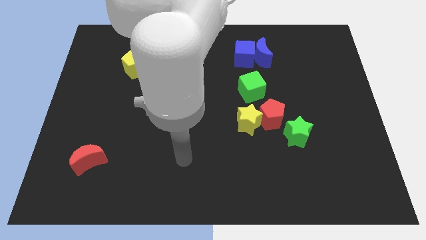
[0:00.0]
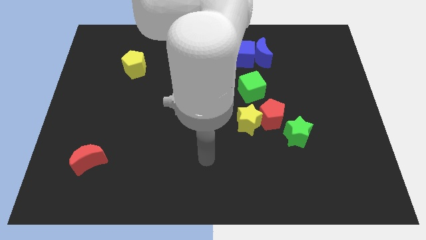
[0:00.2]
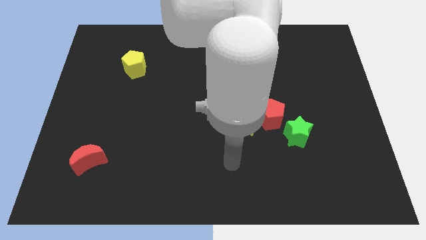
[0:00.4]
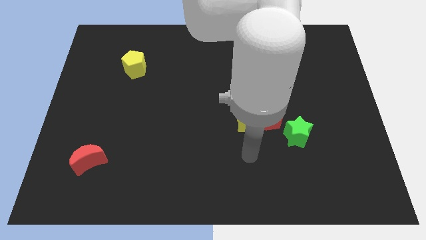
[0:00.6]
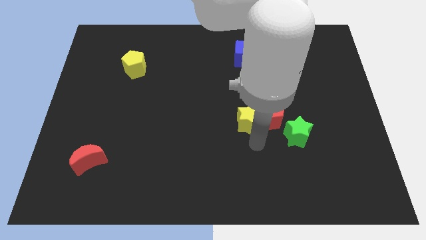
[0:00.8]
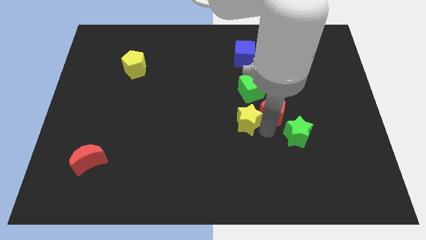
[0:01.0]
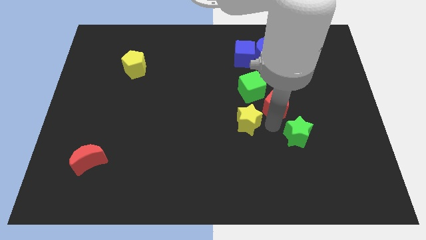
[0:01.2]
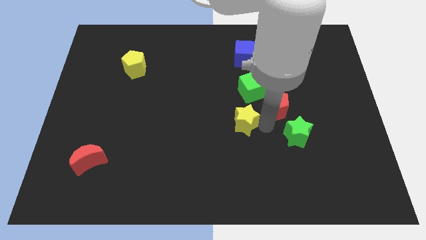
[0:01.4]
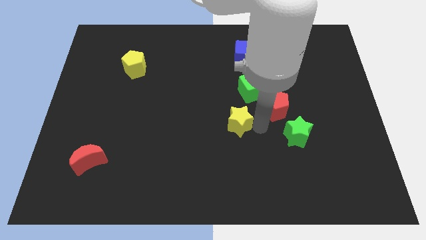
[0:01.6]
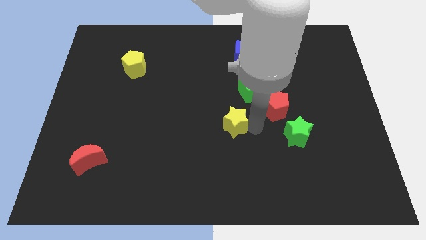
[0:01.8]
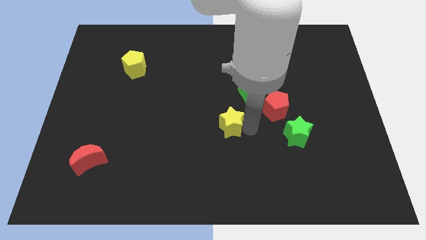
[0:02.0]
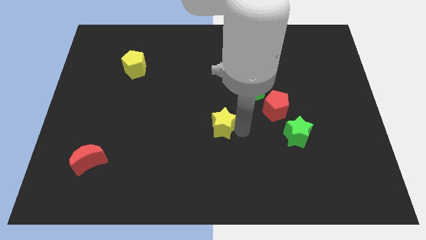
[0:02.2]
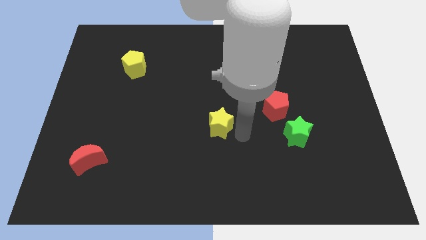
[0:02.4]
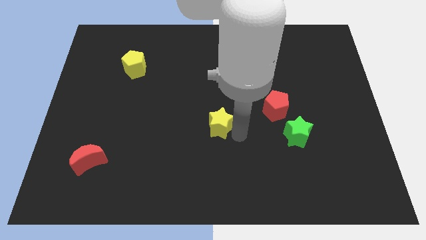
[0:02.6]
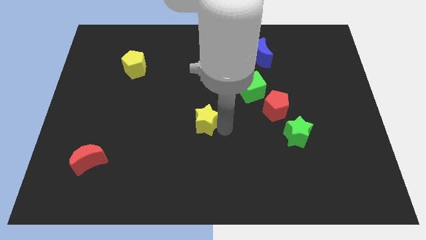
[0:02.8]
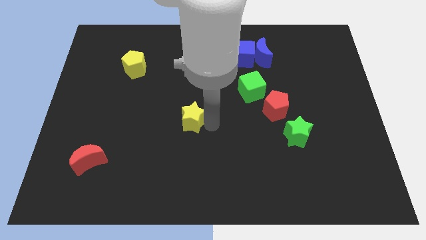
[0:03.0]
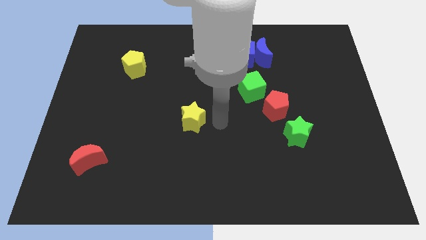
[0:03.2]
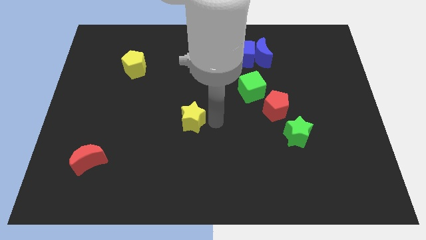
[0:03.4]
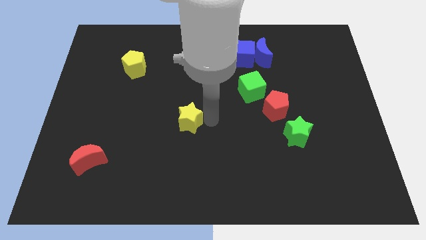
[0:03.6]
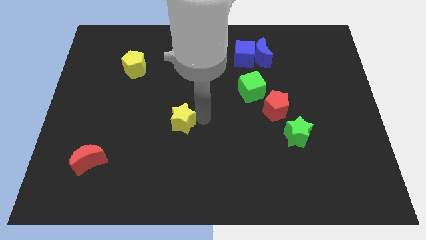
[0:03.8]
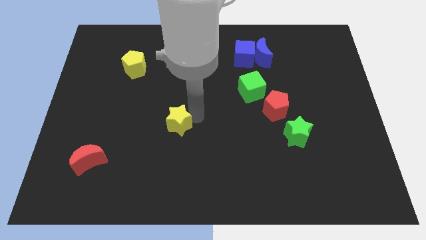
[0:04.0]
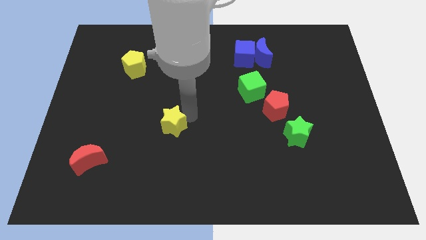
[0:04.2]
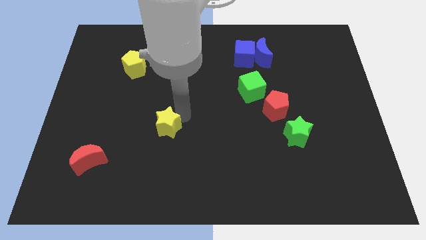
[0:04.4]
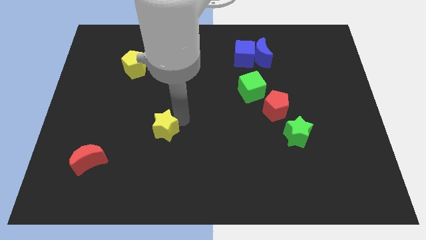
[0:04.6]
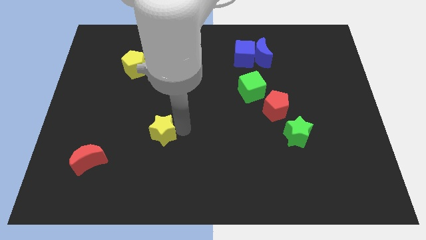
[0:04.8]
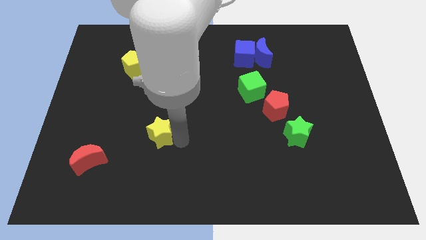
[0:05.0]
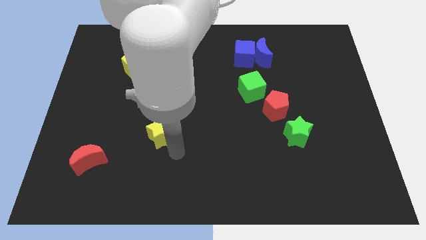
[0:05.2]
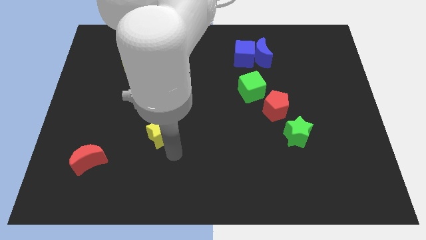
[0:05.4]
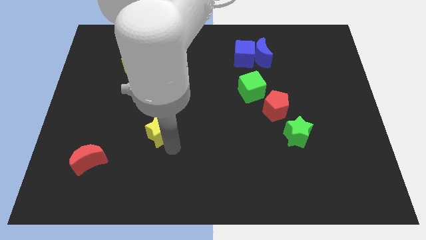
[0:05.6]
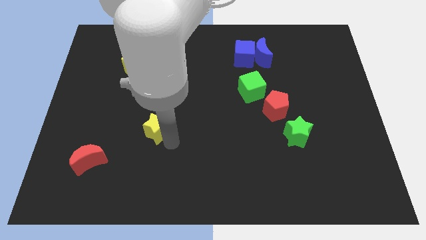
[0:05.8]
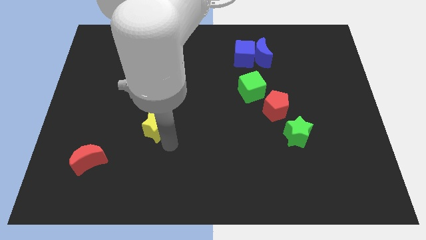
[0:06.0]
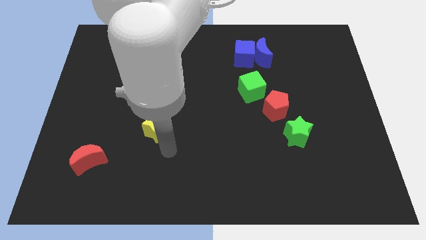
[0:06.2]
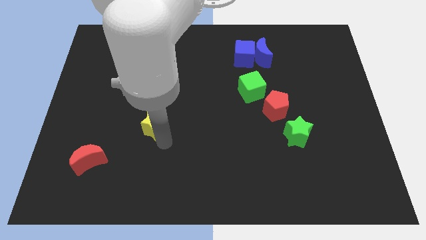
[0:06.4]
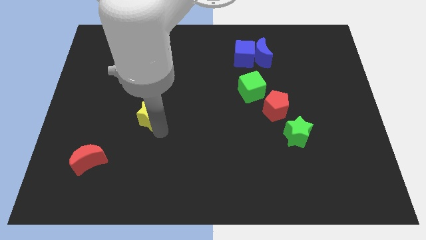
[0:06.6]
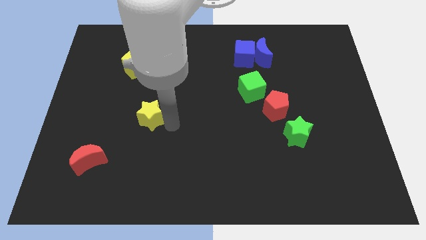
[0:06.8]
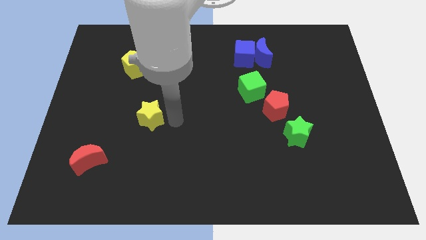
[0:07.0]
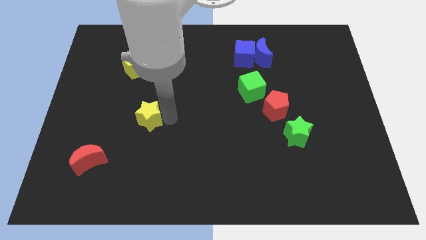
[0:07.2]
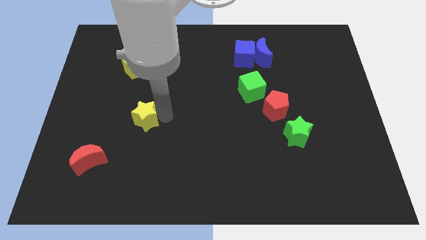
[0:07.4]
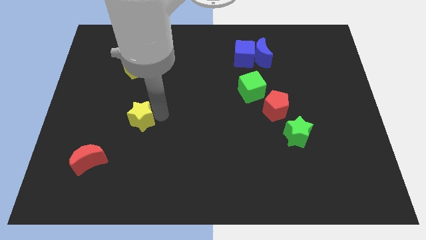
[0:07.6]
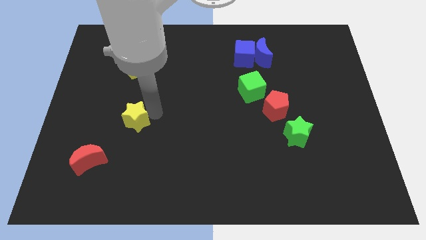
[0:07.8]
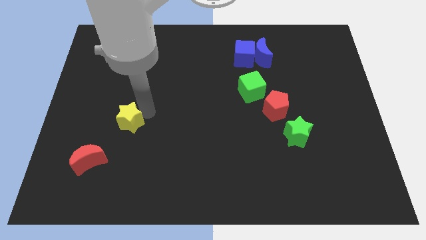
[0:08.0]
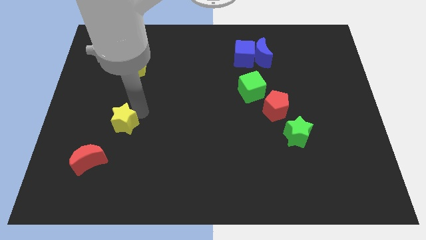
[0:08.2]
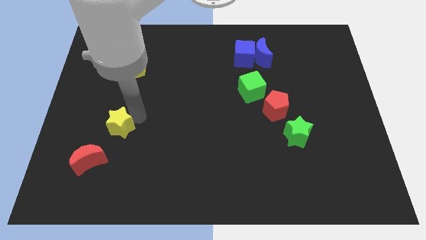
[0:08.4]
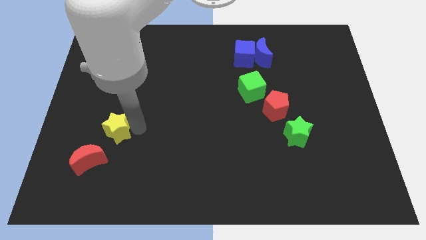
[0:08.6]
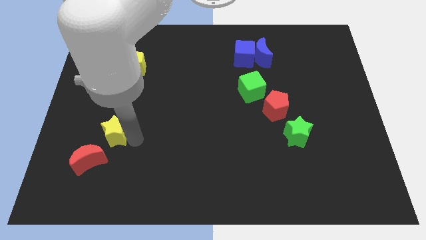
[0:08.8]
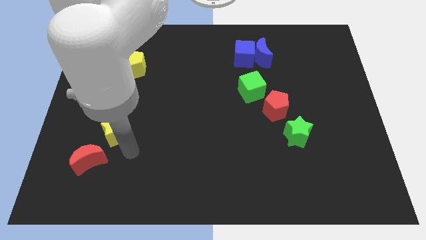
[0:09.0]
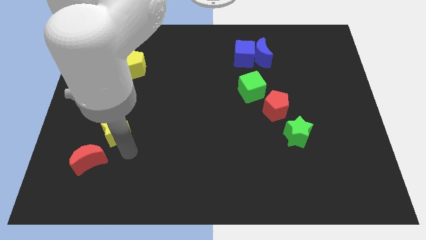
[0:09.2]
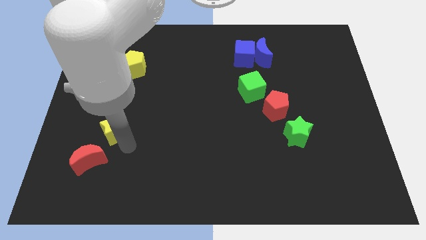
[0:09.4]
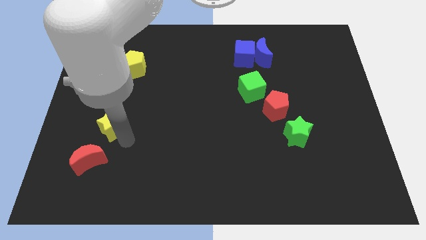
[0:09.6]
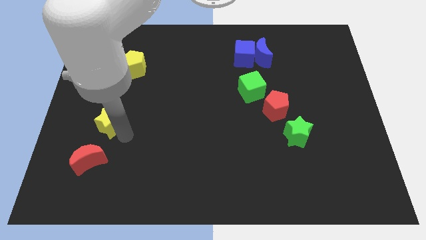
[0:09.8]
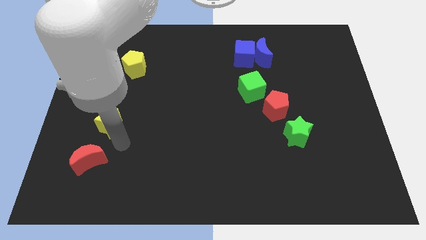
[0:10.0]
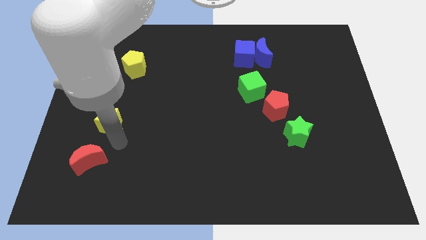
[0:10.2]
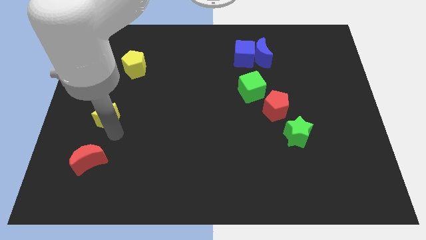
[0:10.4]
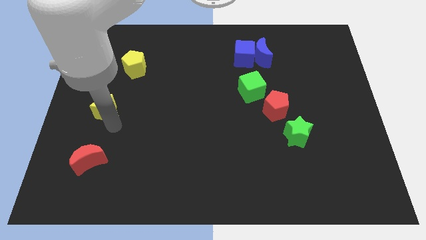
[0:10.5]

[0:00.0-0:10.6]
put the yellow star to the center left

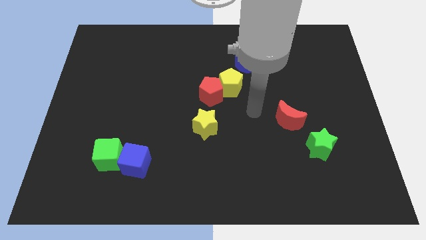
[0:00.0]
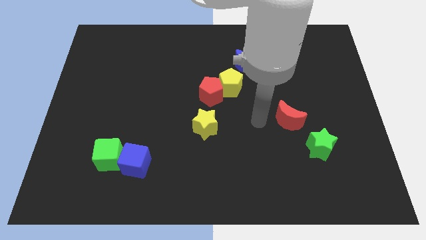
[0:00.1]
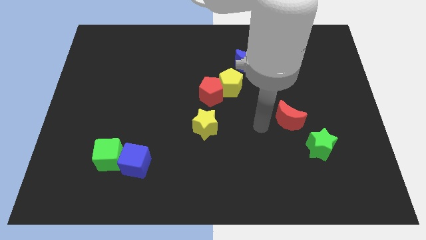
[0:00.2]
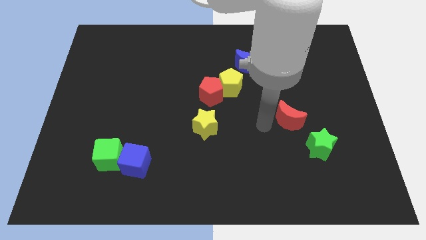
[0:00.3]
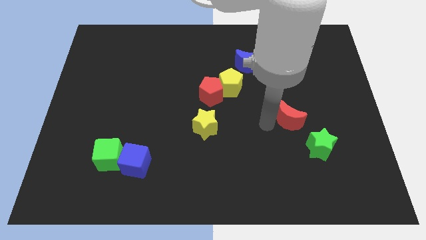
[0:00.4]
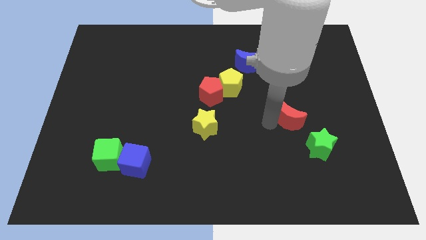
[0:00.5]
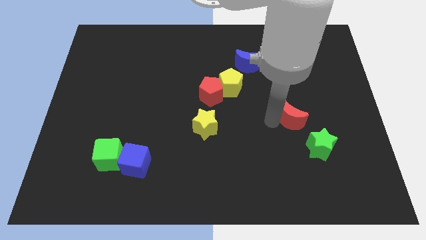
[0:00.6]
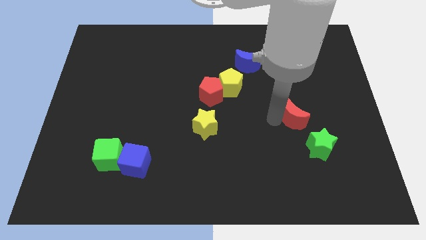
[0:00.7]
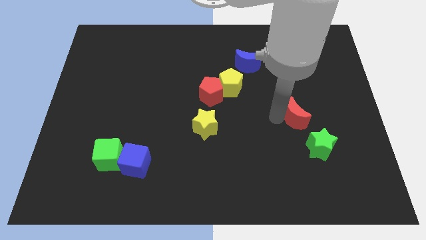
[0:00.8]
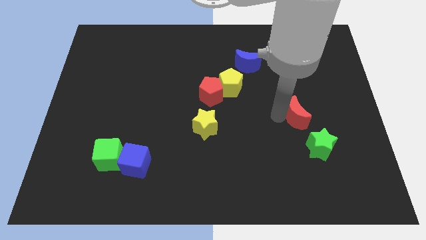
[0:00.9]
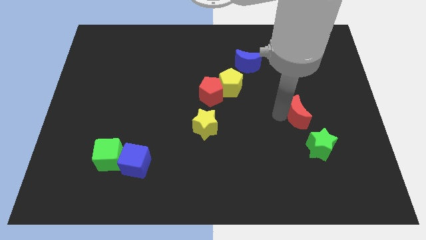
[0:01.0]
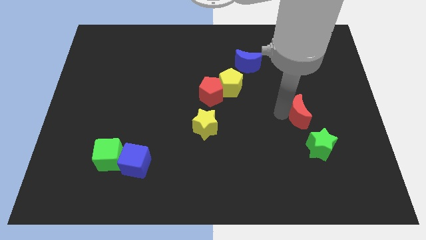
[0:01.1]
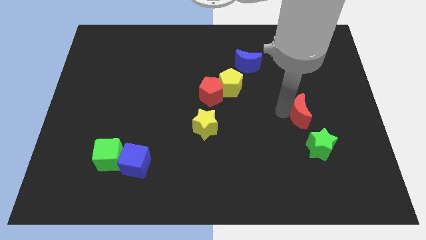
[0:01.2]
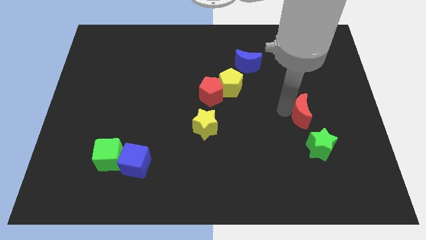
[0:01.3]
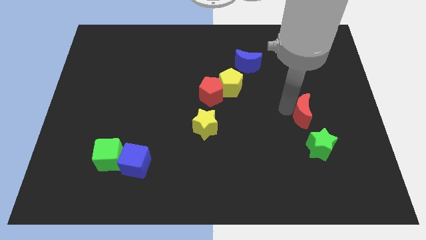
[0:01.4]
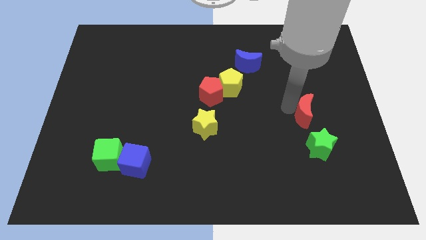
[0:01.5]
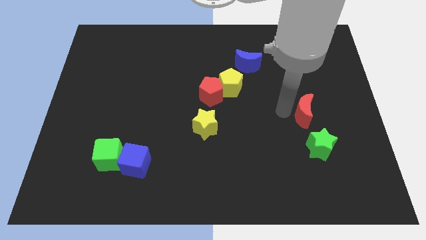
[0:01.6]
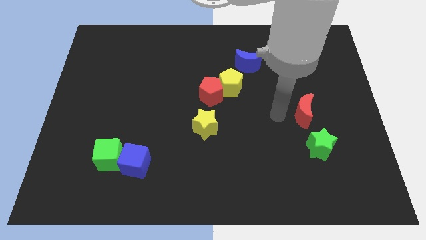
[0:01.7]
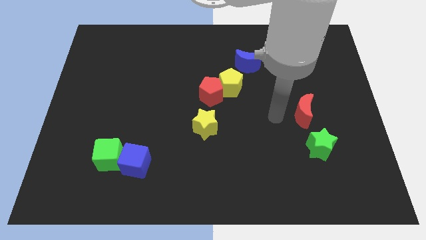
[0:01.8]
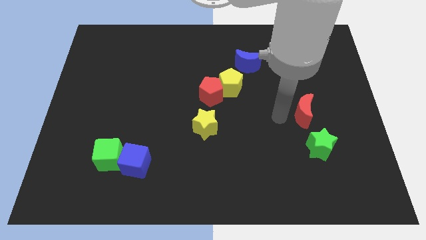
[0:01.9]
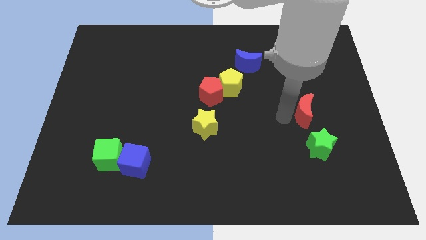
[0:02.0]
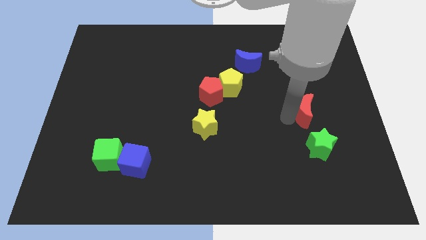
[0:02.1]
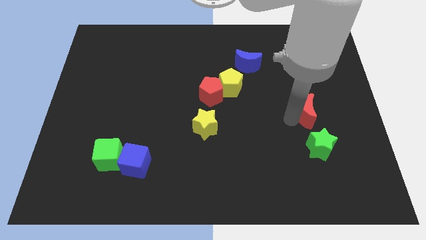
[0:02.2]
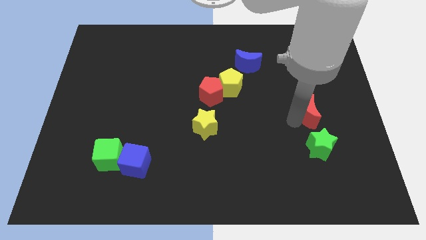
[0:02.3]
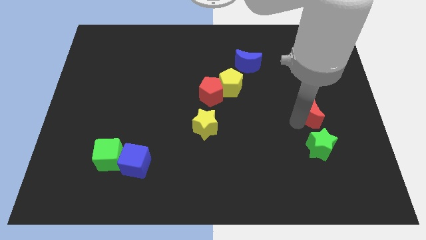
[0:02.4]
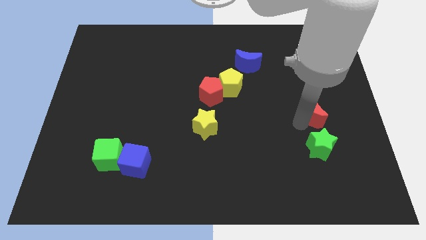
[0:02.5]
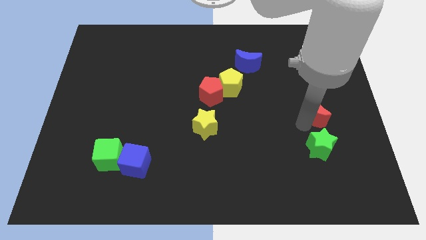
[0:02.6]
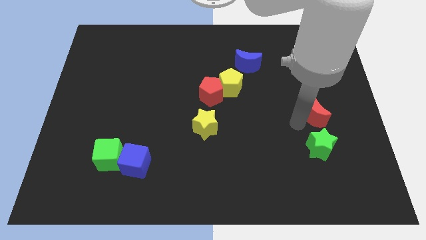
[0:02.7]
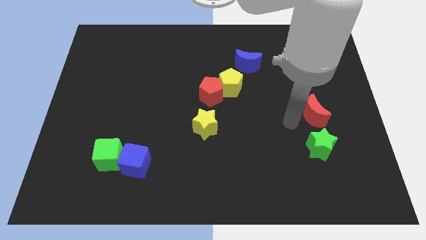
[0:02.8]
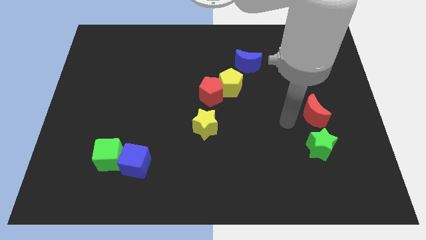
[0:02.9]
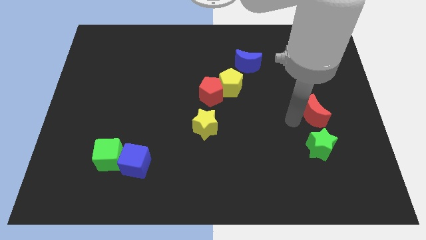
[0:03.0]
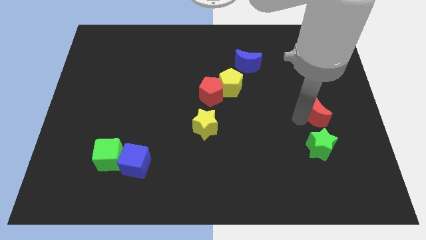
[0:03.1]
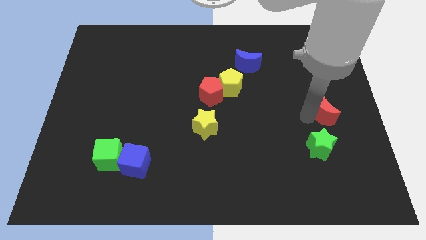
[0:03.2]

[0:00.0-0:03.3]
push the red moon to the center right
